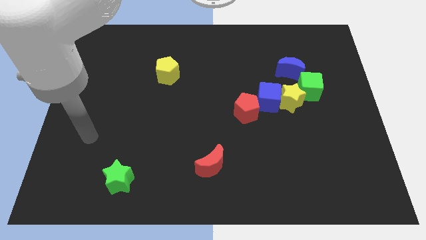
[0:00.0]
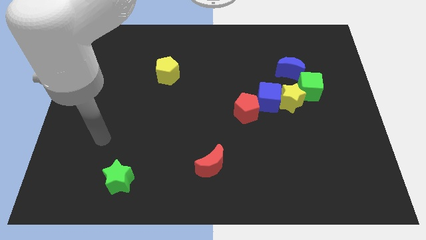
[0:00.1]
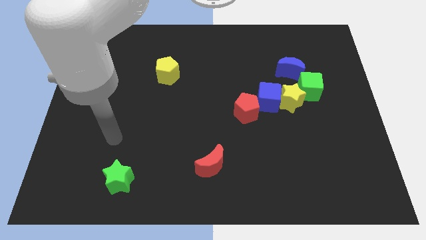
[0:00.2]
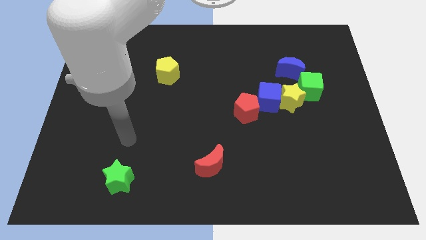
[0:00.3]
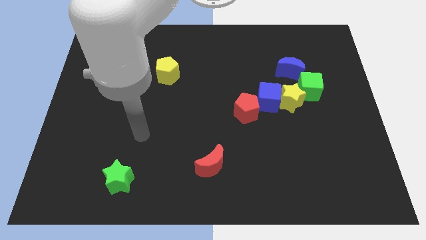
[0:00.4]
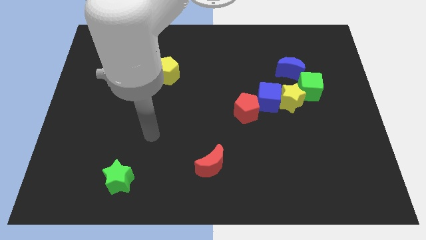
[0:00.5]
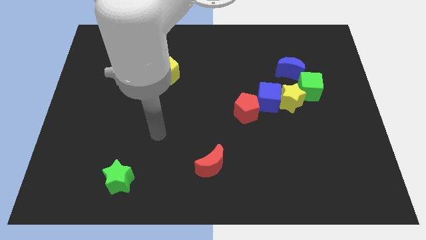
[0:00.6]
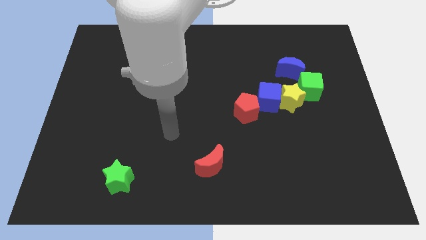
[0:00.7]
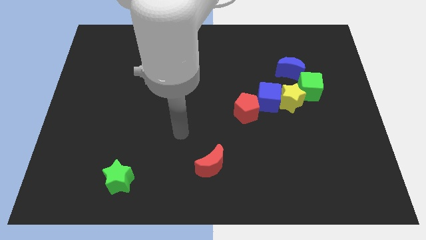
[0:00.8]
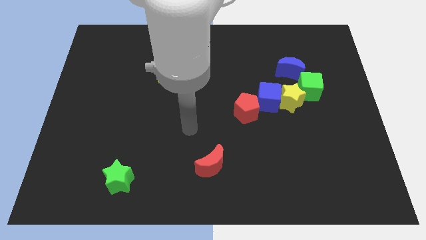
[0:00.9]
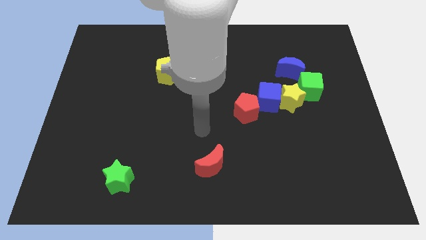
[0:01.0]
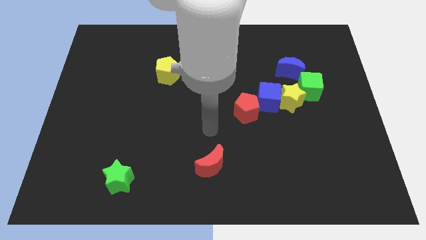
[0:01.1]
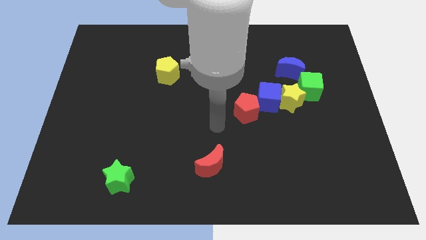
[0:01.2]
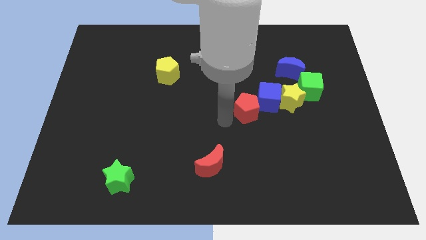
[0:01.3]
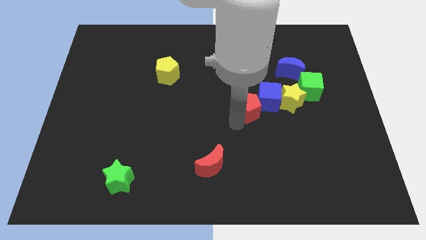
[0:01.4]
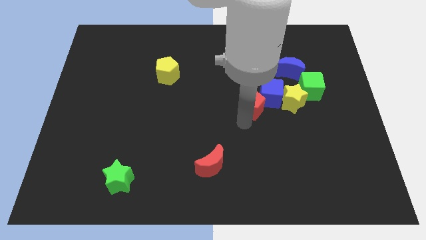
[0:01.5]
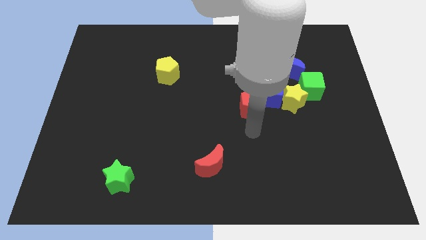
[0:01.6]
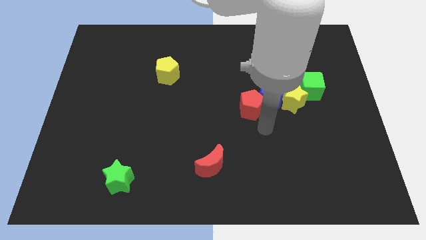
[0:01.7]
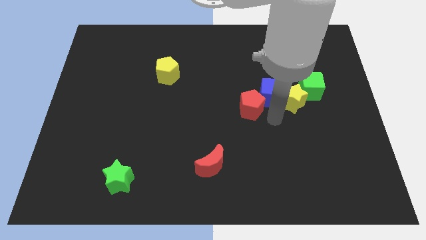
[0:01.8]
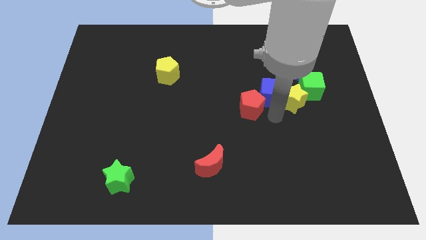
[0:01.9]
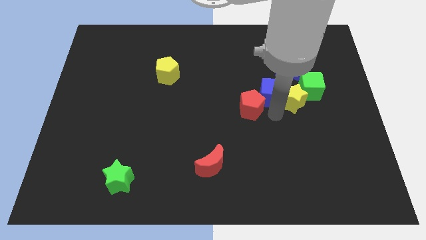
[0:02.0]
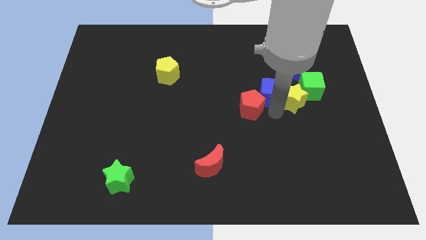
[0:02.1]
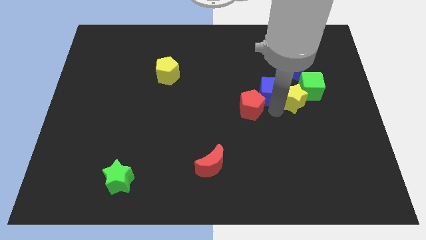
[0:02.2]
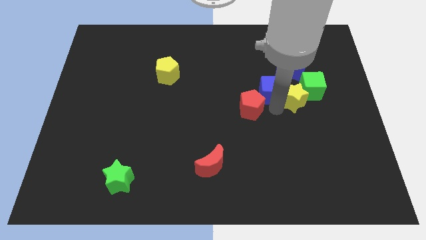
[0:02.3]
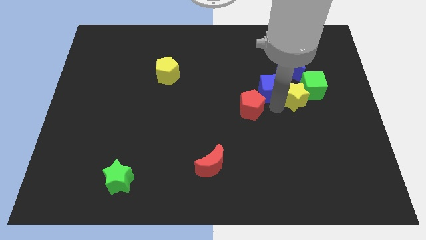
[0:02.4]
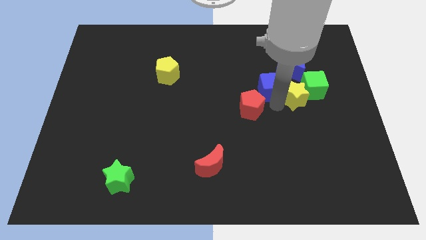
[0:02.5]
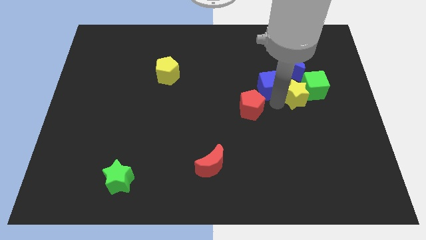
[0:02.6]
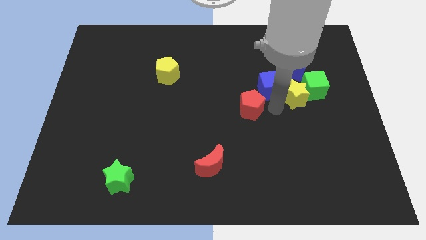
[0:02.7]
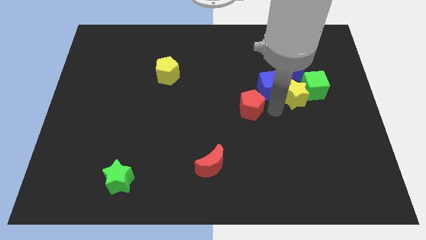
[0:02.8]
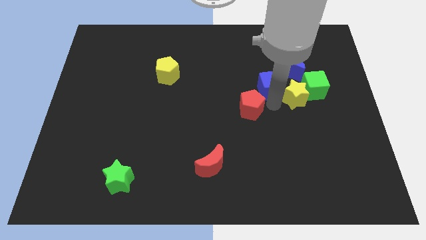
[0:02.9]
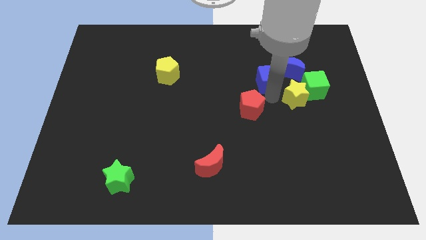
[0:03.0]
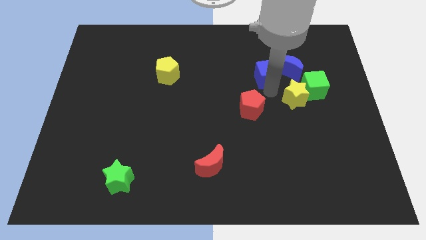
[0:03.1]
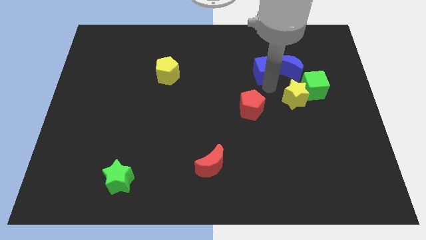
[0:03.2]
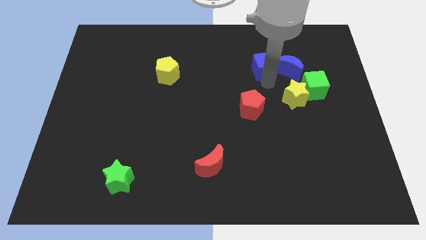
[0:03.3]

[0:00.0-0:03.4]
pull the blue cube apart from the yellow star and red pentagon

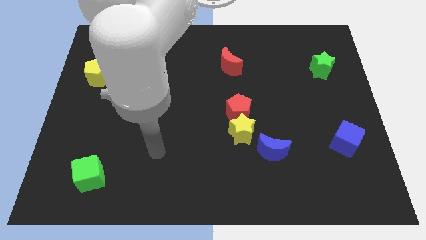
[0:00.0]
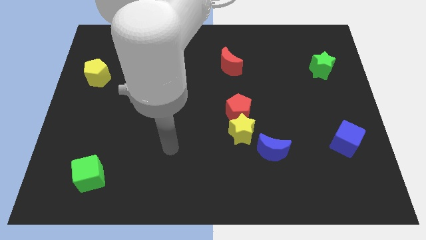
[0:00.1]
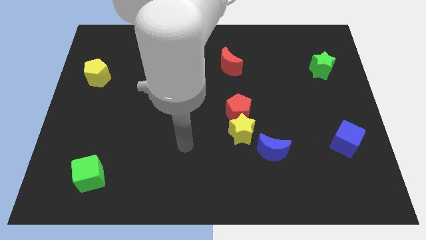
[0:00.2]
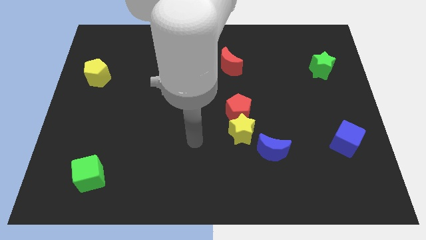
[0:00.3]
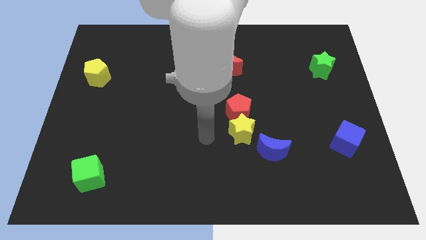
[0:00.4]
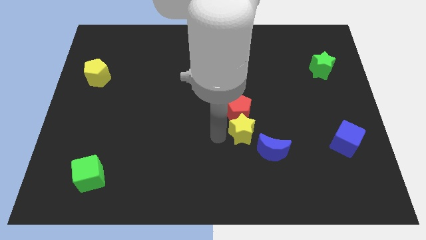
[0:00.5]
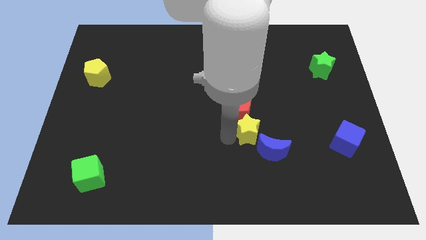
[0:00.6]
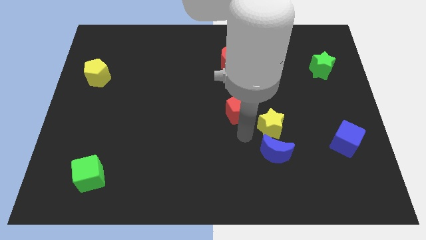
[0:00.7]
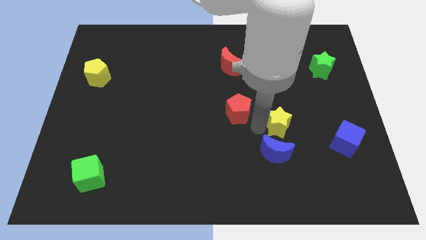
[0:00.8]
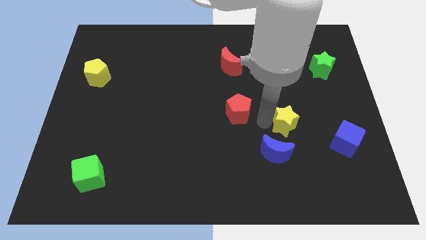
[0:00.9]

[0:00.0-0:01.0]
separate the red pentagon from the yellow star

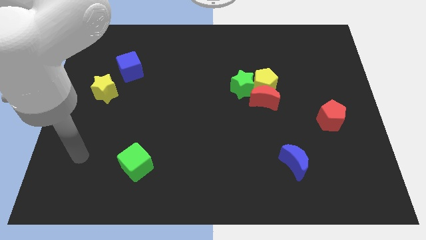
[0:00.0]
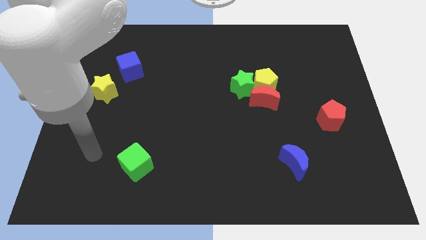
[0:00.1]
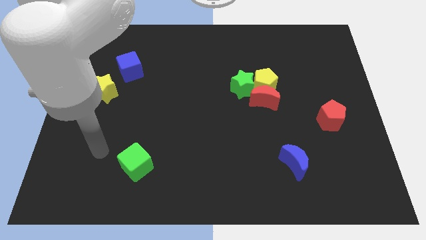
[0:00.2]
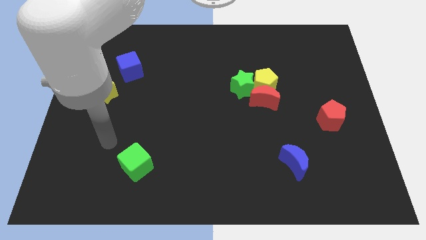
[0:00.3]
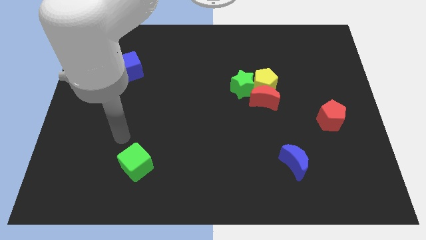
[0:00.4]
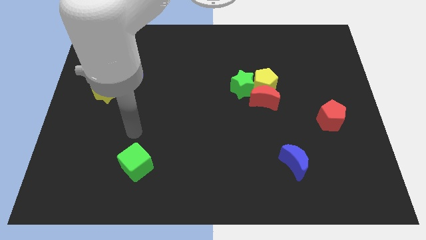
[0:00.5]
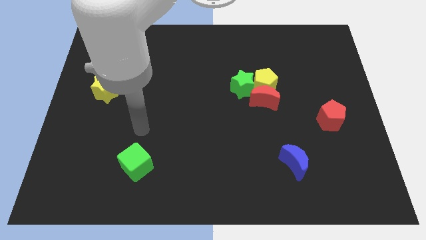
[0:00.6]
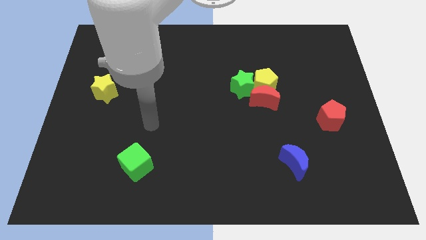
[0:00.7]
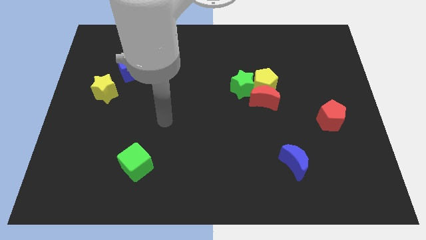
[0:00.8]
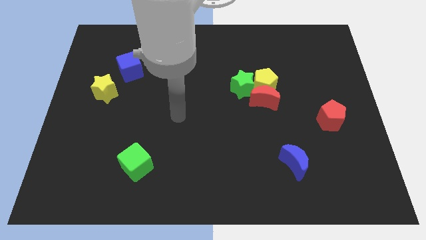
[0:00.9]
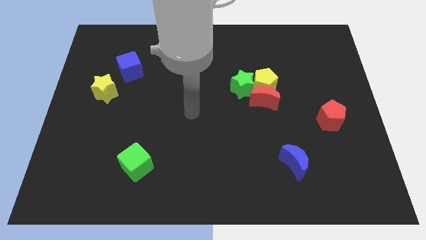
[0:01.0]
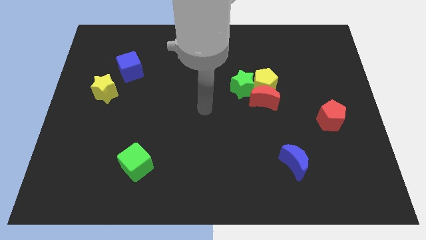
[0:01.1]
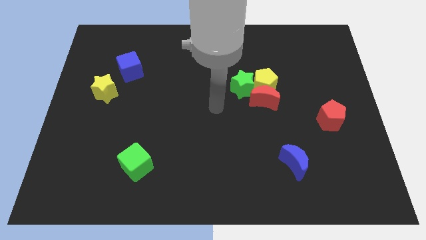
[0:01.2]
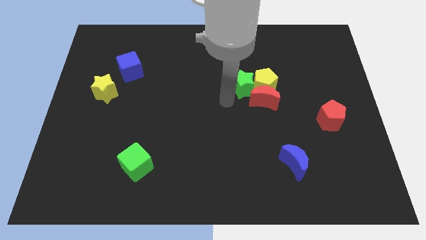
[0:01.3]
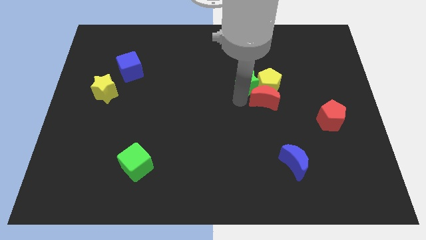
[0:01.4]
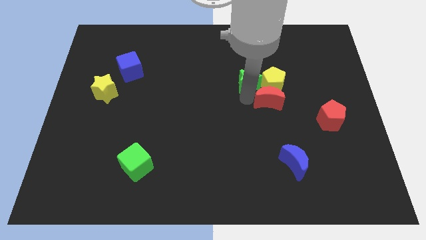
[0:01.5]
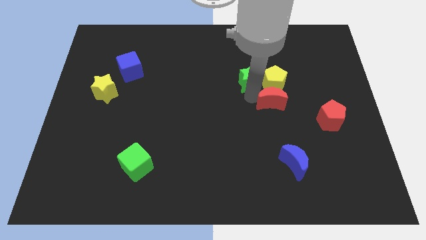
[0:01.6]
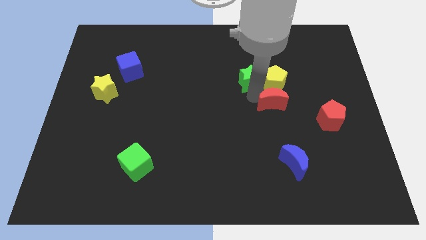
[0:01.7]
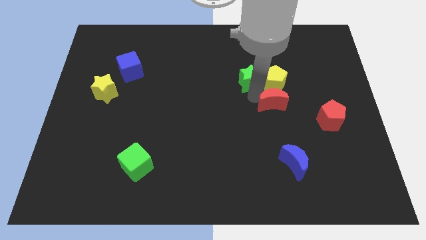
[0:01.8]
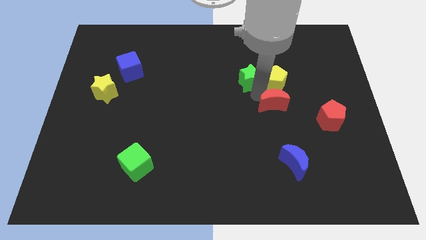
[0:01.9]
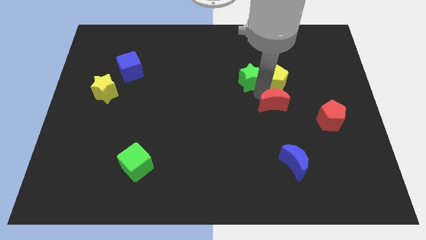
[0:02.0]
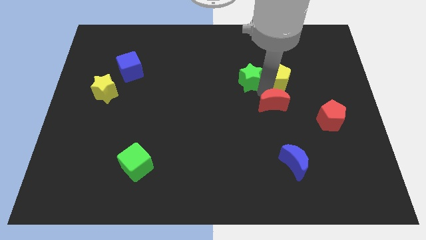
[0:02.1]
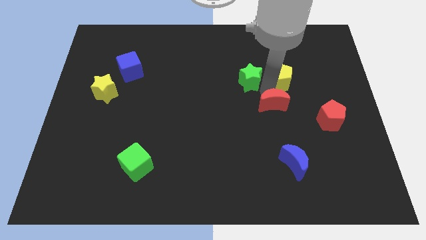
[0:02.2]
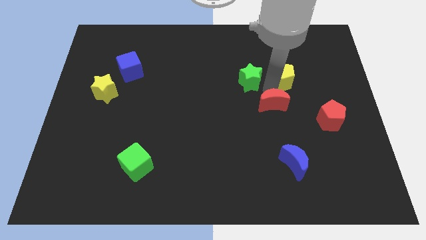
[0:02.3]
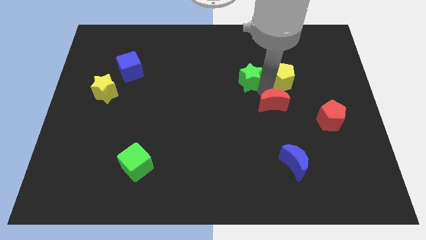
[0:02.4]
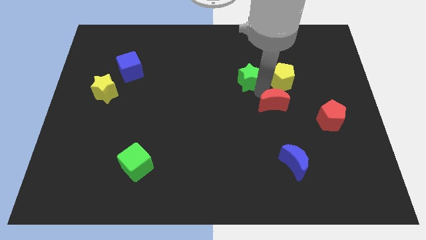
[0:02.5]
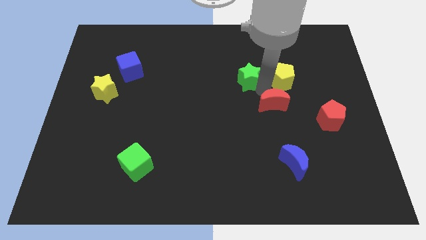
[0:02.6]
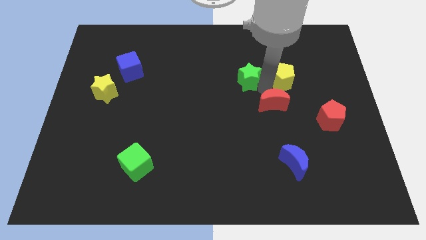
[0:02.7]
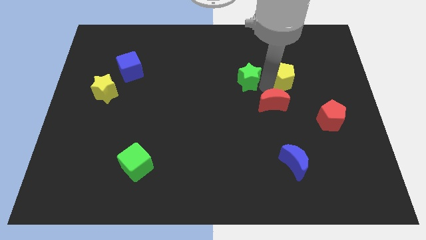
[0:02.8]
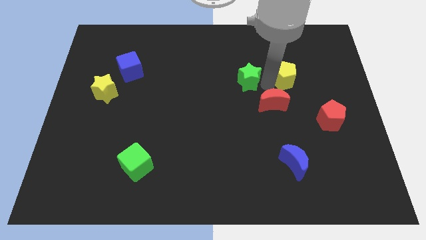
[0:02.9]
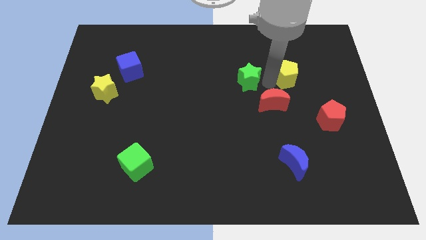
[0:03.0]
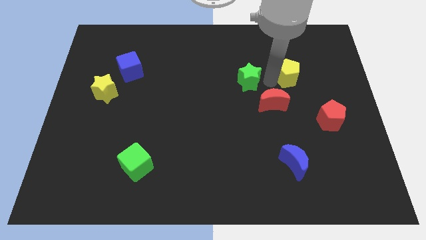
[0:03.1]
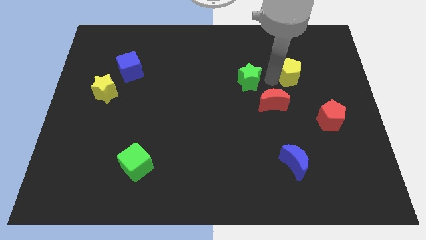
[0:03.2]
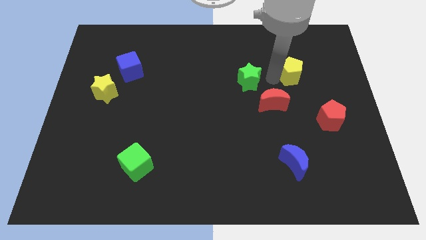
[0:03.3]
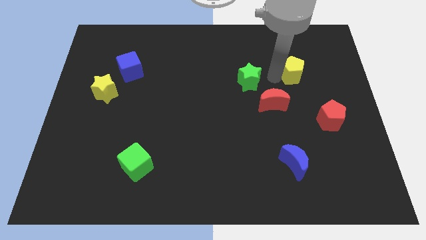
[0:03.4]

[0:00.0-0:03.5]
move the yellow pentagon away from the red moon and green star

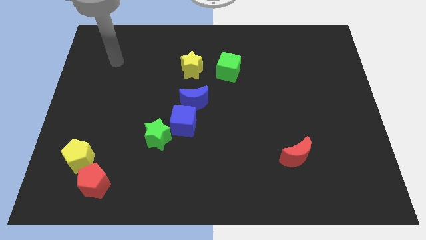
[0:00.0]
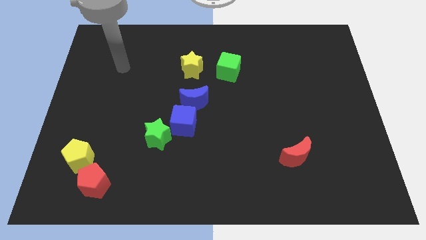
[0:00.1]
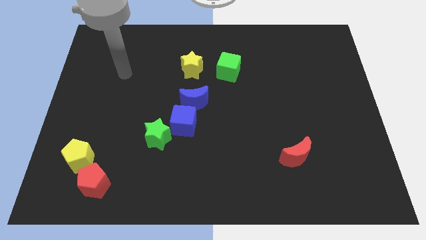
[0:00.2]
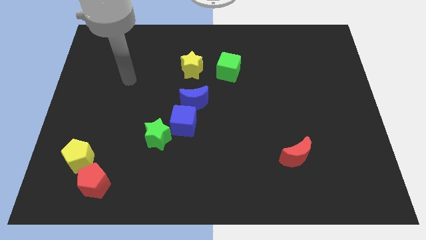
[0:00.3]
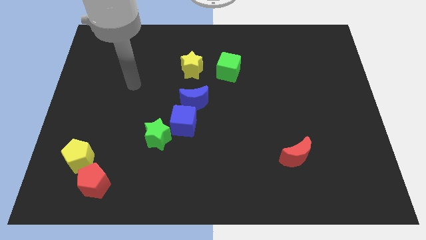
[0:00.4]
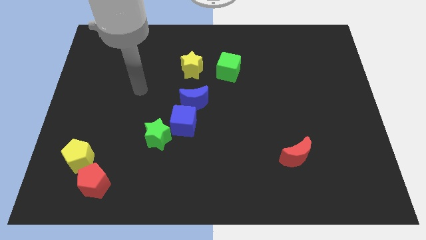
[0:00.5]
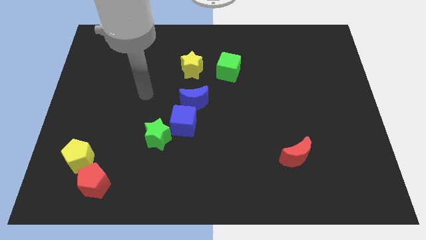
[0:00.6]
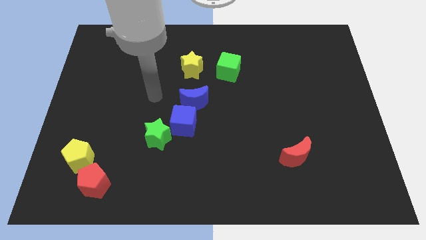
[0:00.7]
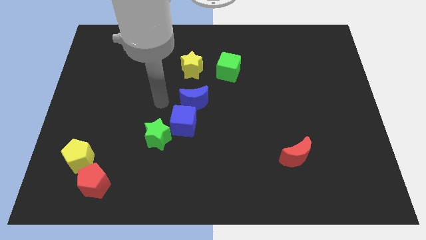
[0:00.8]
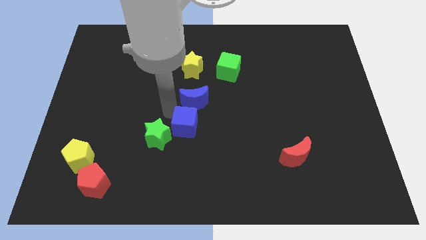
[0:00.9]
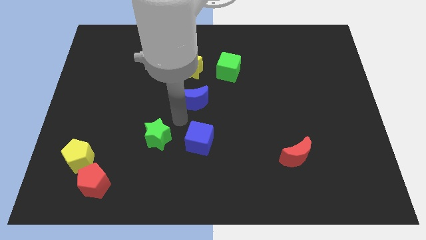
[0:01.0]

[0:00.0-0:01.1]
move the blue moon away from the blue cube

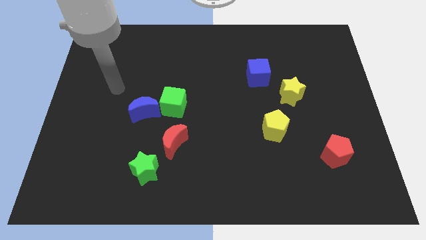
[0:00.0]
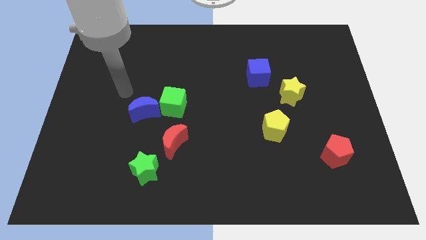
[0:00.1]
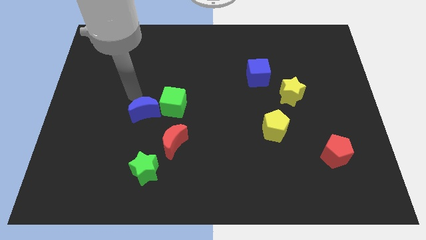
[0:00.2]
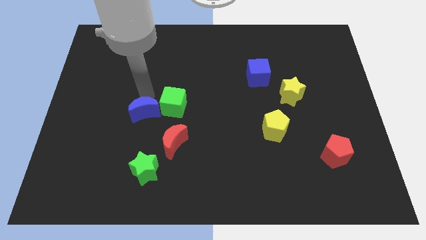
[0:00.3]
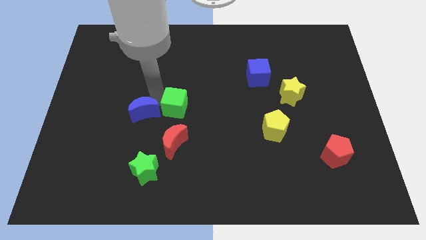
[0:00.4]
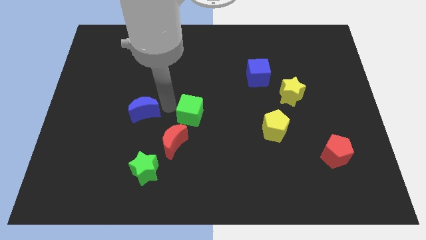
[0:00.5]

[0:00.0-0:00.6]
move the blue moon away from the green cube
